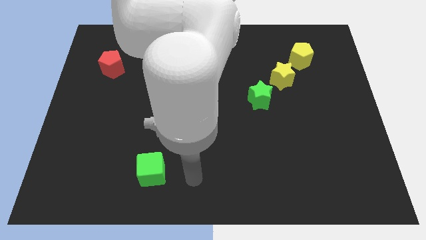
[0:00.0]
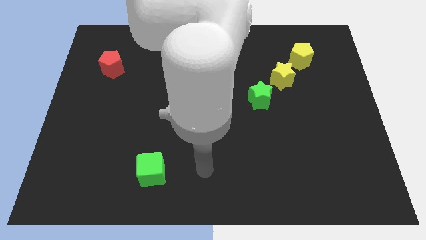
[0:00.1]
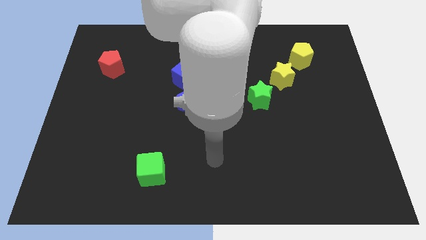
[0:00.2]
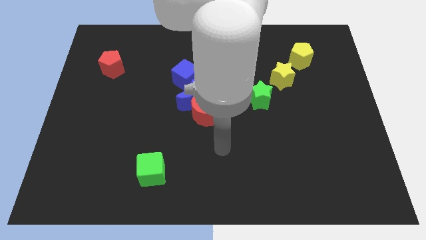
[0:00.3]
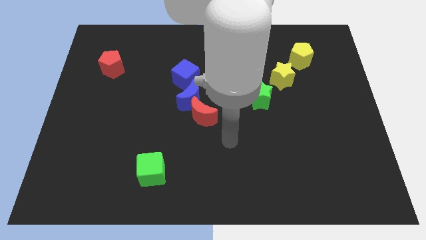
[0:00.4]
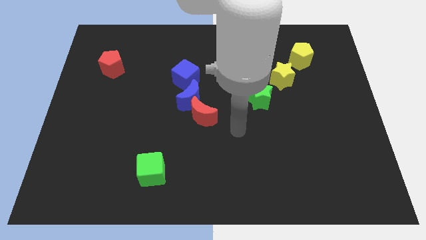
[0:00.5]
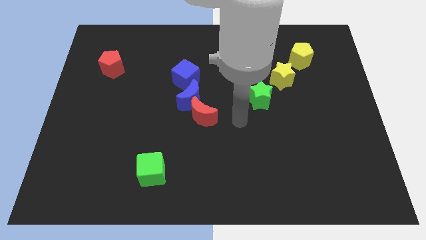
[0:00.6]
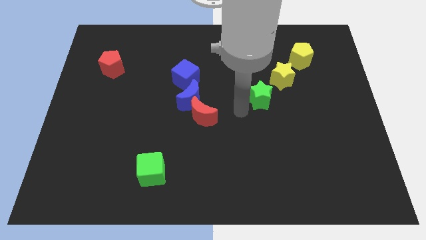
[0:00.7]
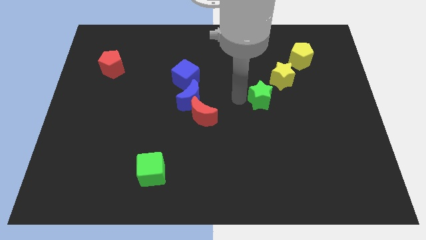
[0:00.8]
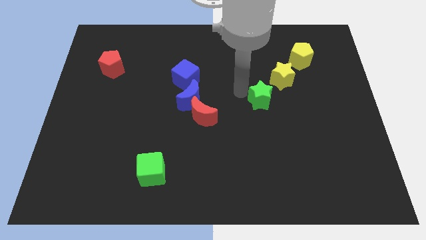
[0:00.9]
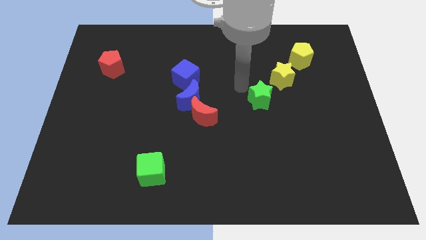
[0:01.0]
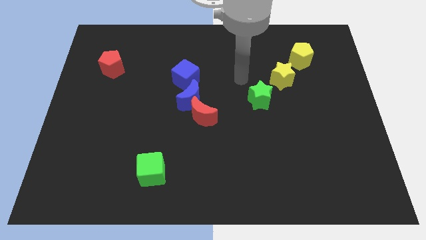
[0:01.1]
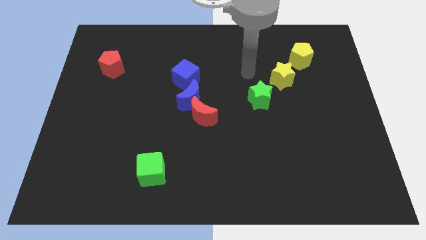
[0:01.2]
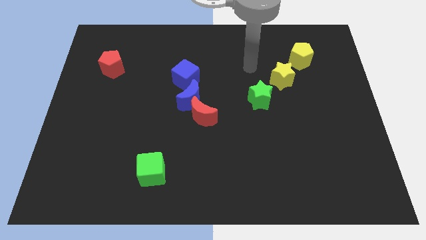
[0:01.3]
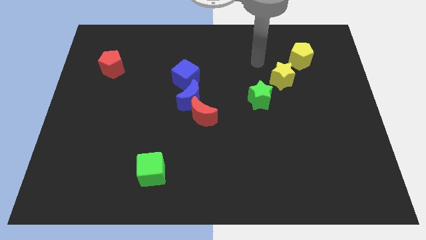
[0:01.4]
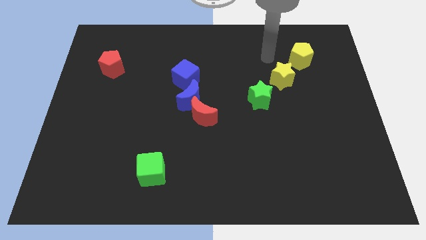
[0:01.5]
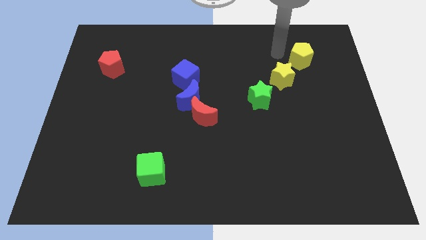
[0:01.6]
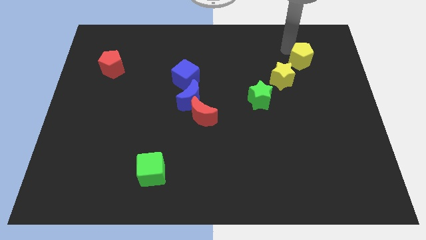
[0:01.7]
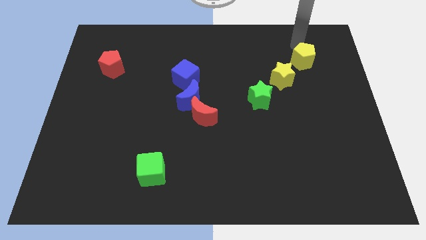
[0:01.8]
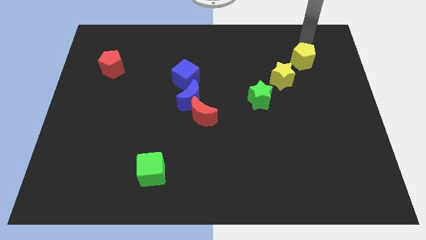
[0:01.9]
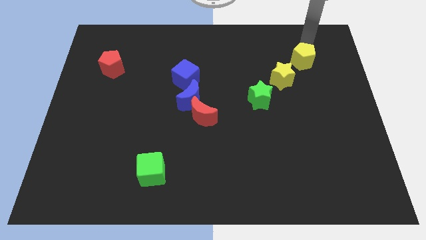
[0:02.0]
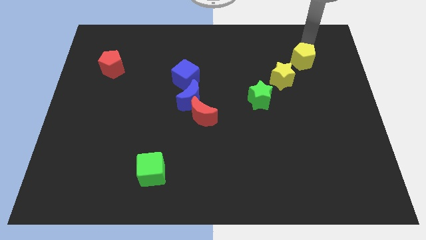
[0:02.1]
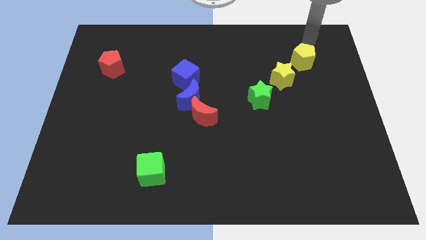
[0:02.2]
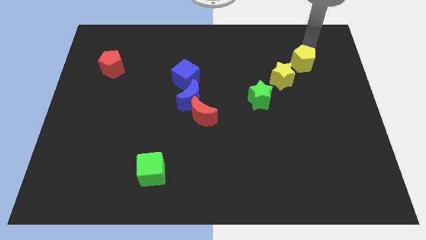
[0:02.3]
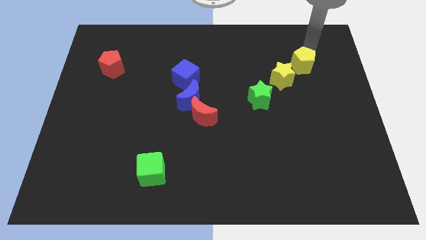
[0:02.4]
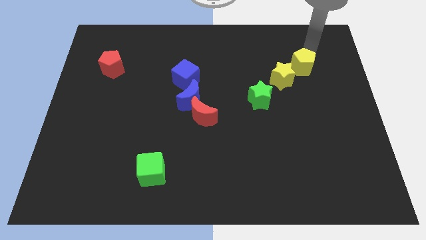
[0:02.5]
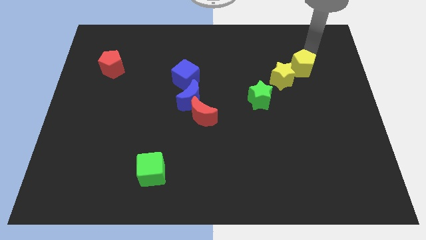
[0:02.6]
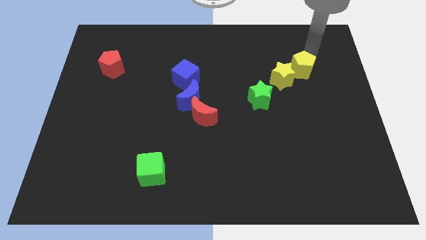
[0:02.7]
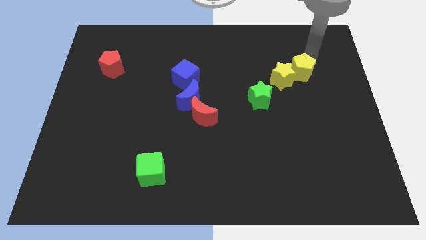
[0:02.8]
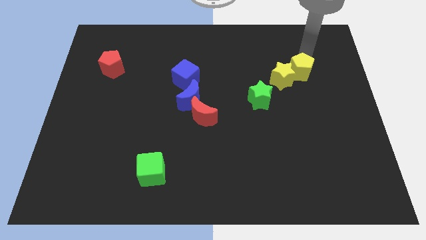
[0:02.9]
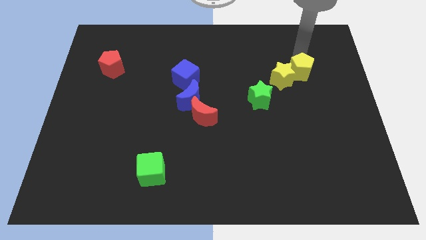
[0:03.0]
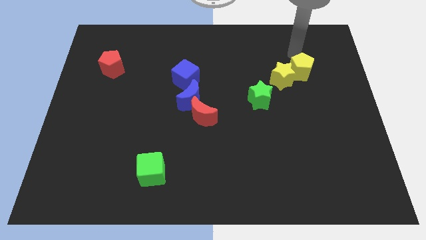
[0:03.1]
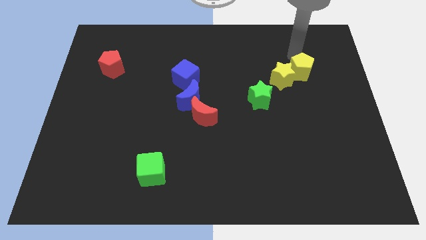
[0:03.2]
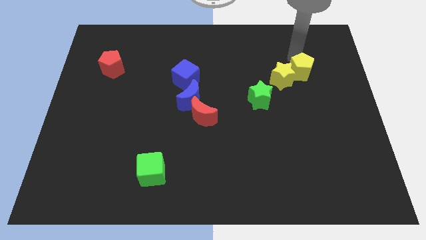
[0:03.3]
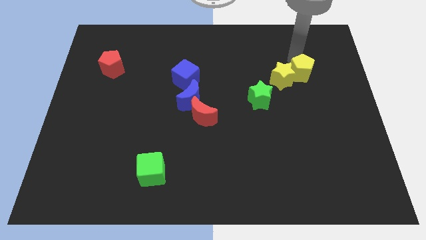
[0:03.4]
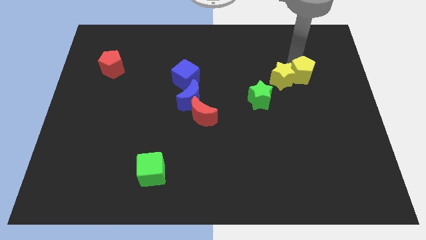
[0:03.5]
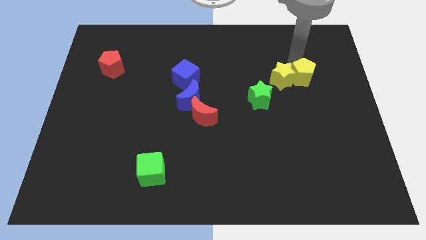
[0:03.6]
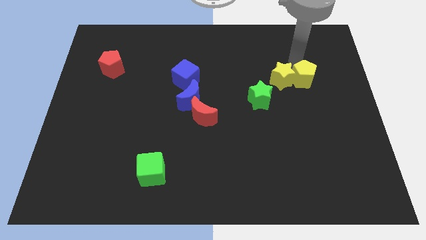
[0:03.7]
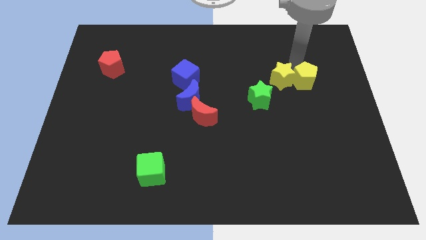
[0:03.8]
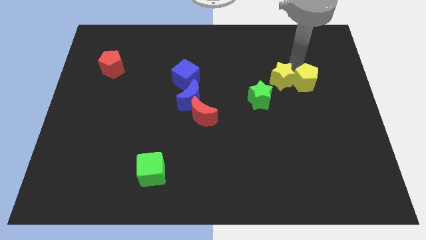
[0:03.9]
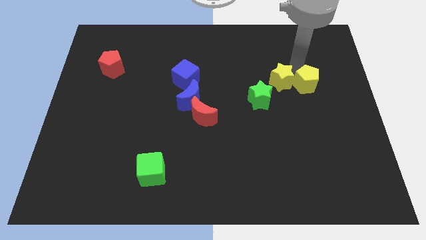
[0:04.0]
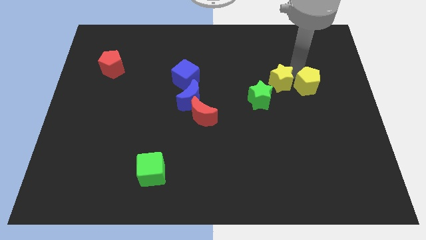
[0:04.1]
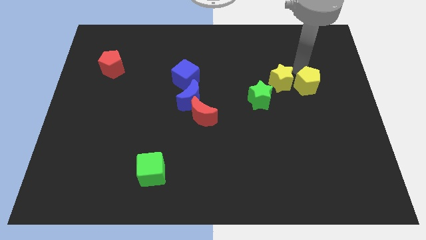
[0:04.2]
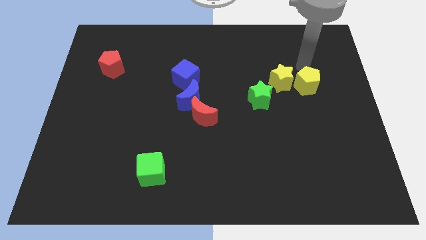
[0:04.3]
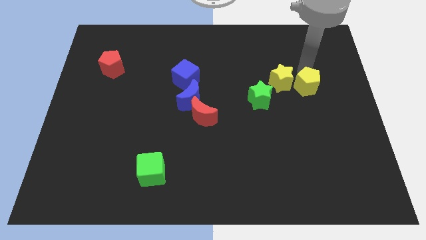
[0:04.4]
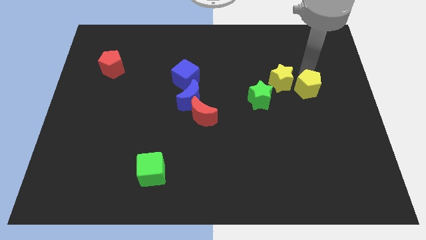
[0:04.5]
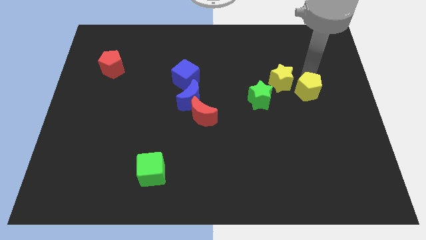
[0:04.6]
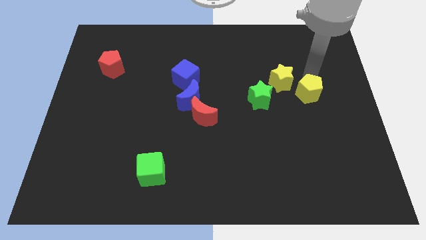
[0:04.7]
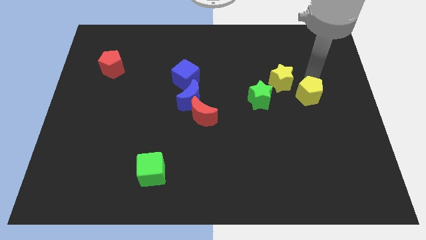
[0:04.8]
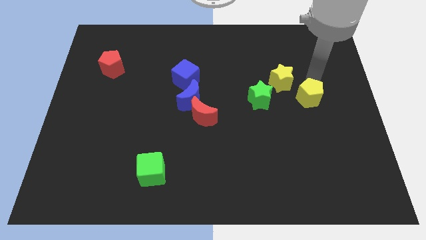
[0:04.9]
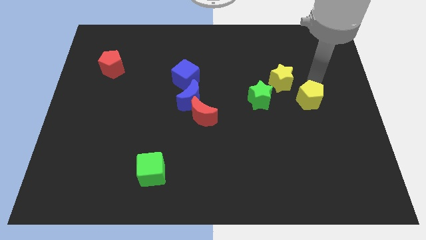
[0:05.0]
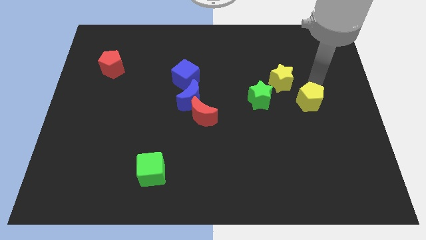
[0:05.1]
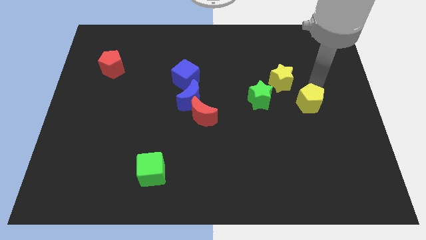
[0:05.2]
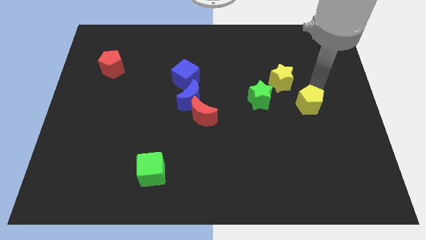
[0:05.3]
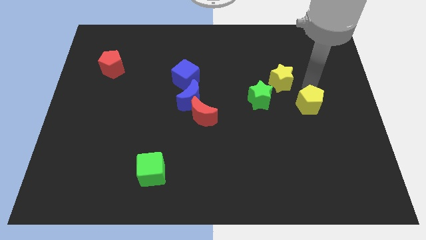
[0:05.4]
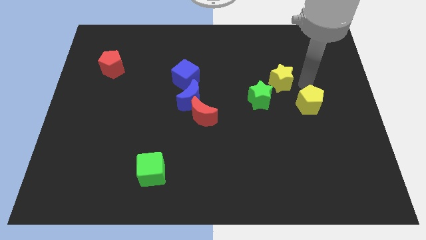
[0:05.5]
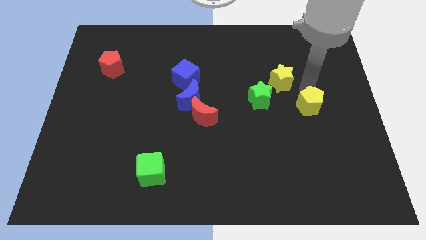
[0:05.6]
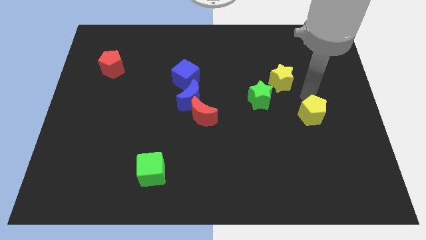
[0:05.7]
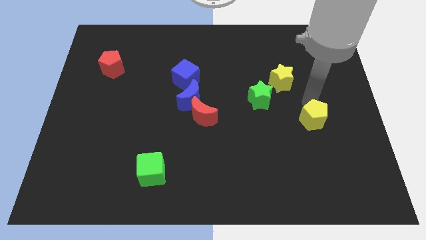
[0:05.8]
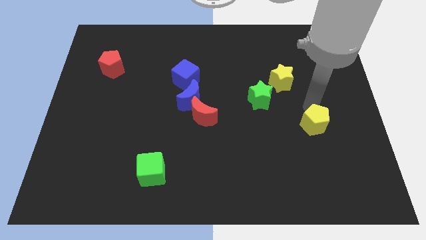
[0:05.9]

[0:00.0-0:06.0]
move the yellow pentagon down

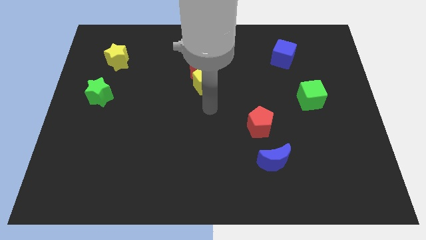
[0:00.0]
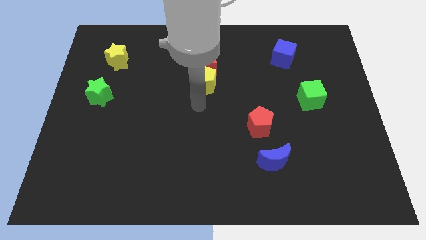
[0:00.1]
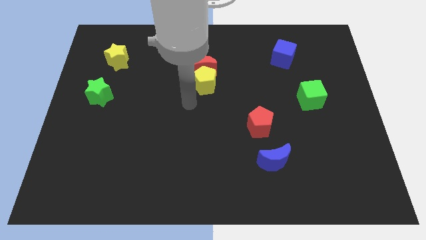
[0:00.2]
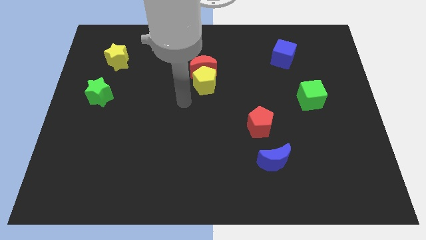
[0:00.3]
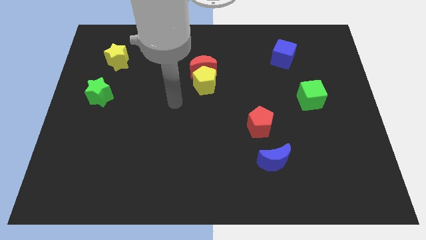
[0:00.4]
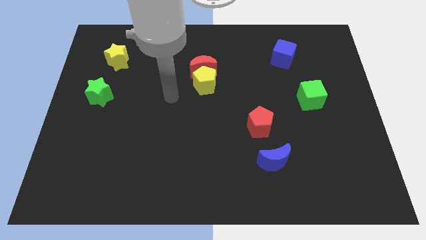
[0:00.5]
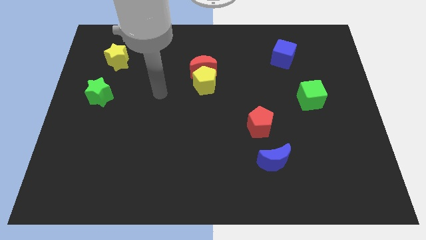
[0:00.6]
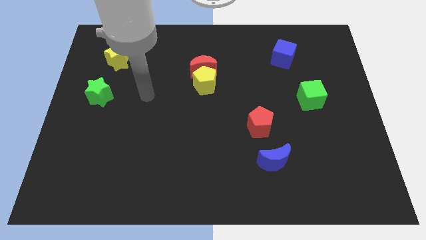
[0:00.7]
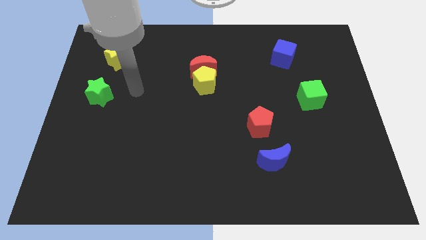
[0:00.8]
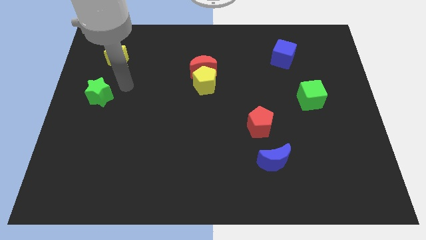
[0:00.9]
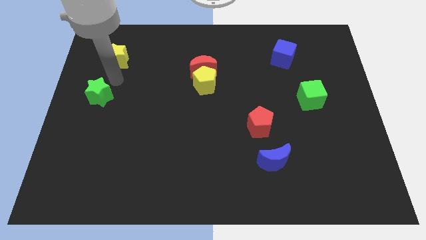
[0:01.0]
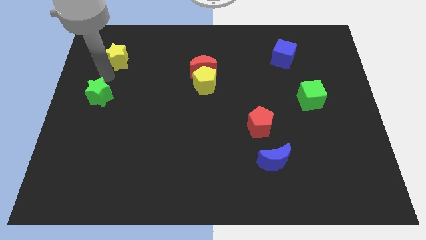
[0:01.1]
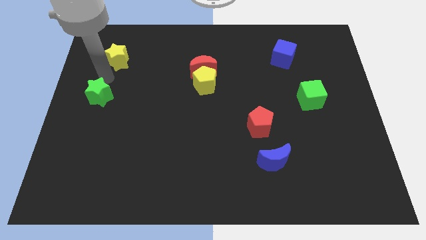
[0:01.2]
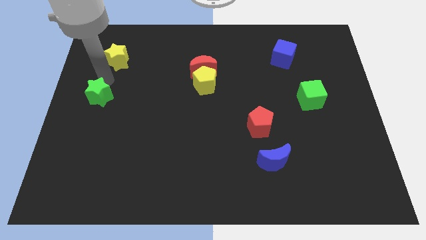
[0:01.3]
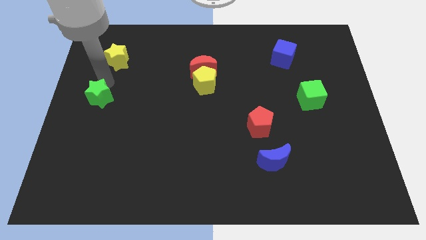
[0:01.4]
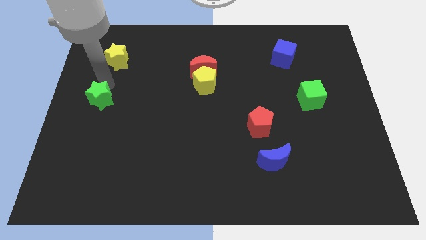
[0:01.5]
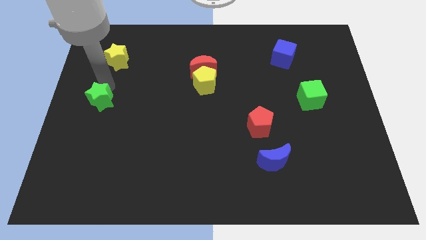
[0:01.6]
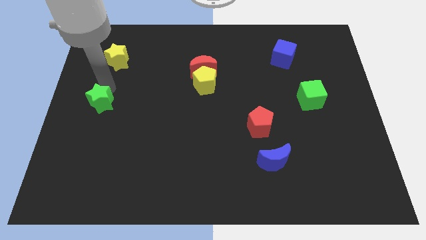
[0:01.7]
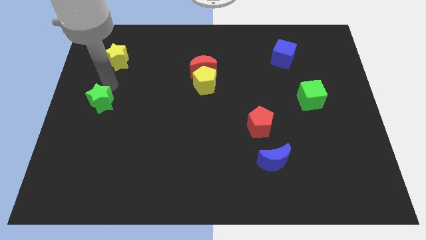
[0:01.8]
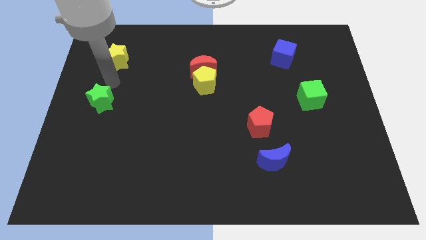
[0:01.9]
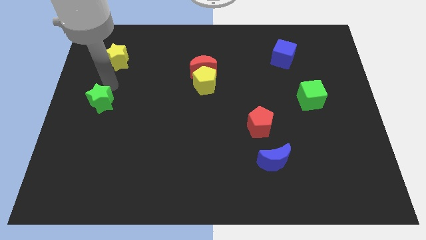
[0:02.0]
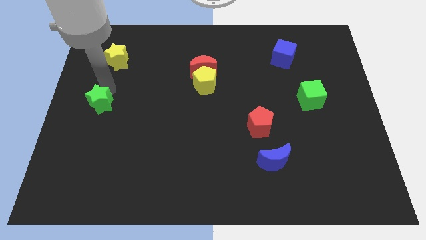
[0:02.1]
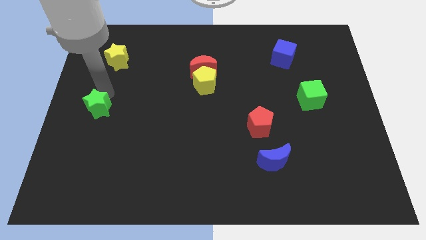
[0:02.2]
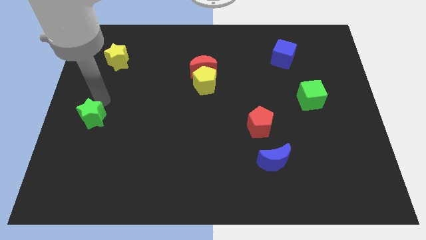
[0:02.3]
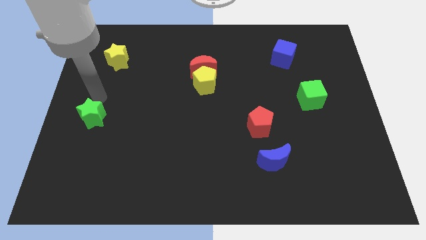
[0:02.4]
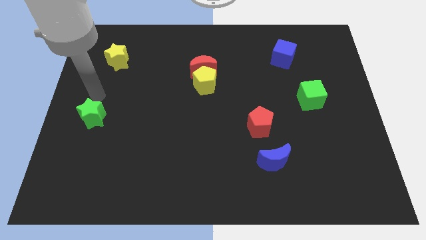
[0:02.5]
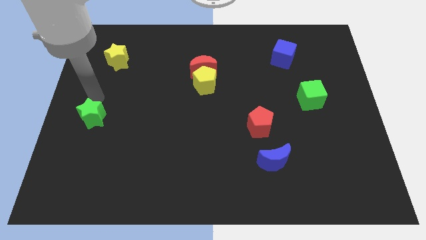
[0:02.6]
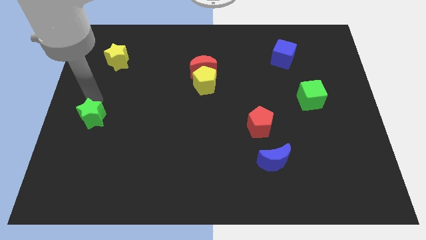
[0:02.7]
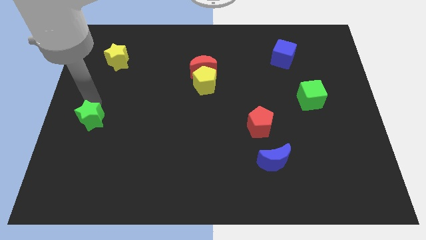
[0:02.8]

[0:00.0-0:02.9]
slightly slide the green star down
